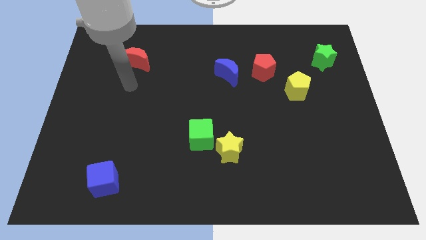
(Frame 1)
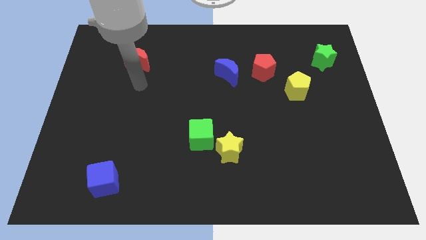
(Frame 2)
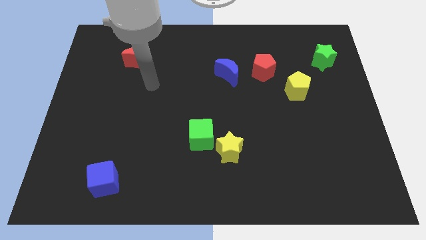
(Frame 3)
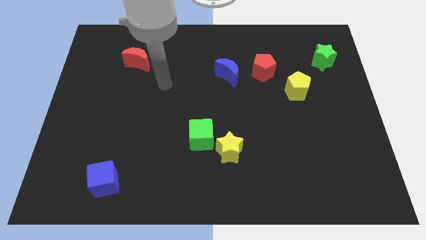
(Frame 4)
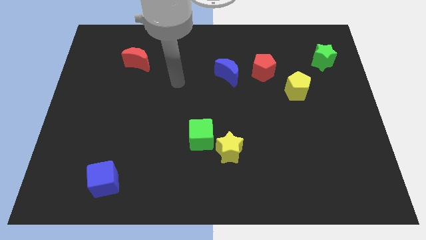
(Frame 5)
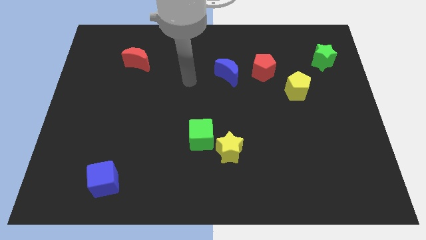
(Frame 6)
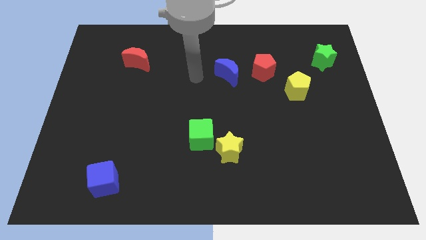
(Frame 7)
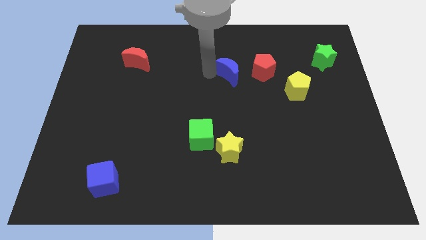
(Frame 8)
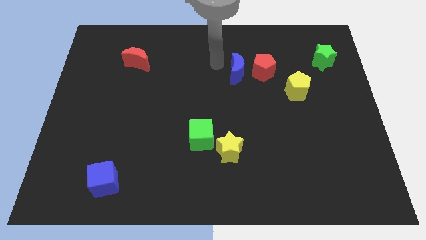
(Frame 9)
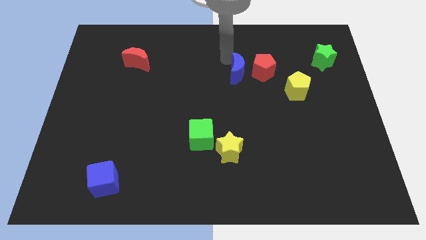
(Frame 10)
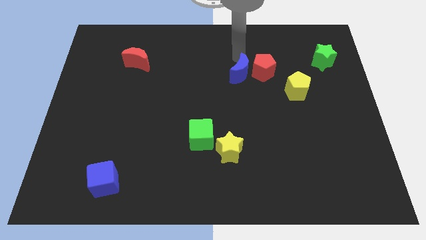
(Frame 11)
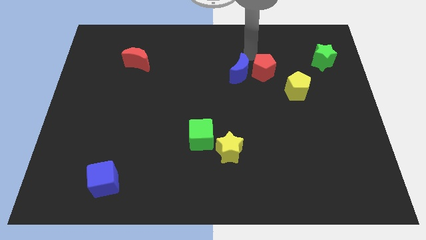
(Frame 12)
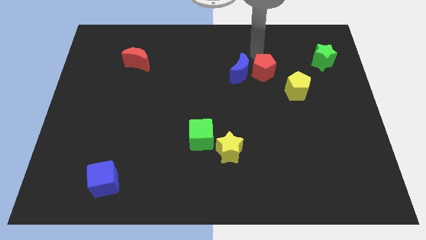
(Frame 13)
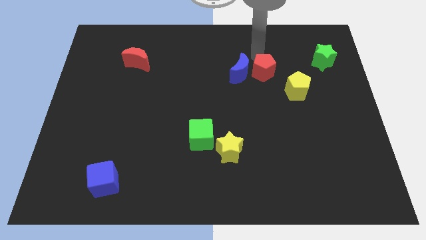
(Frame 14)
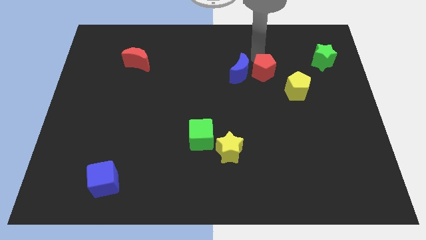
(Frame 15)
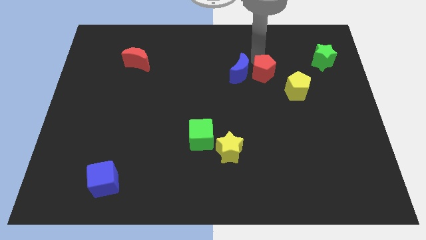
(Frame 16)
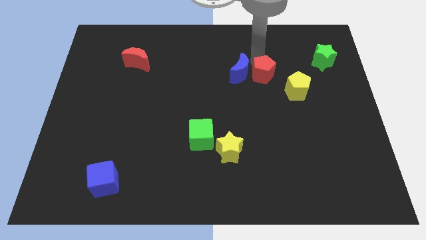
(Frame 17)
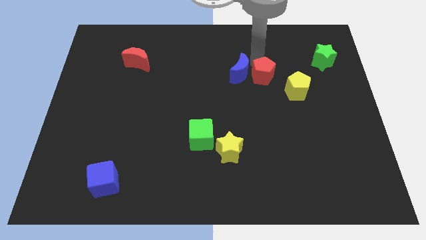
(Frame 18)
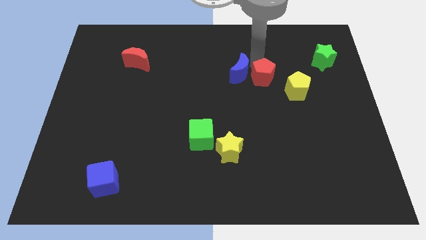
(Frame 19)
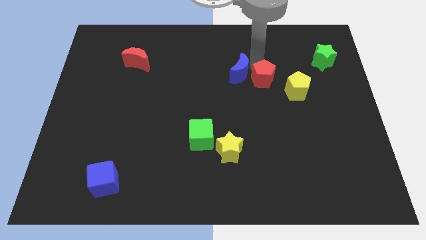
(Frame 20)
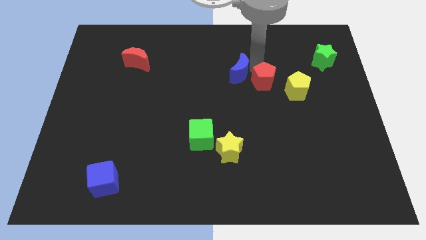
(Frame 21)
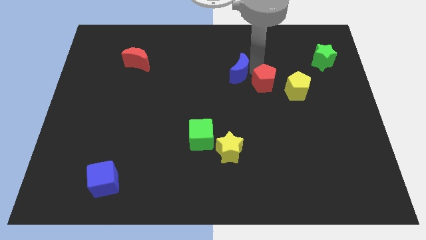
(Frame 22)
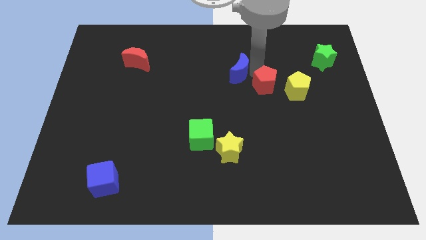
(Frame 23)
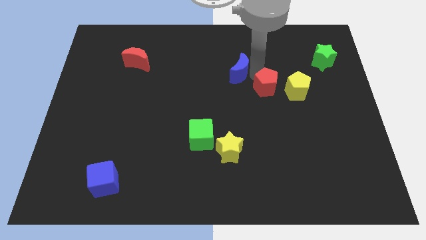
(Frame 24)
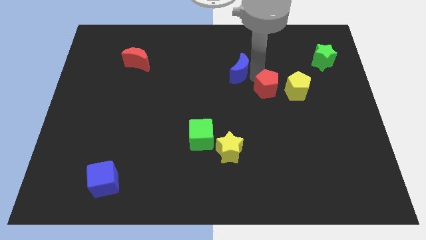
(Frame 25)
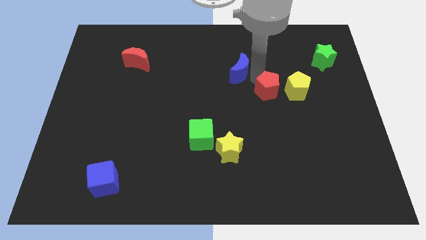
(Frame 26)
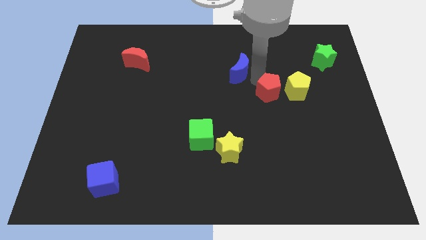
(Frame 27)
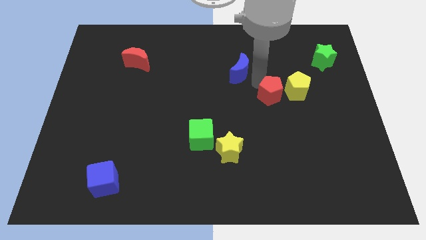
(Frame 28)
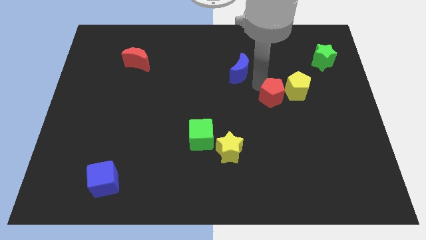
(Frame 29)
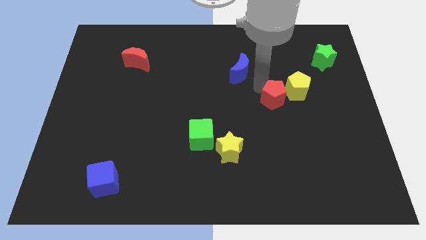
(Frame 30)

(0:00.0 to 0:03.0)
push the red pentagon diagonally down and to the right a little

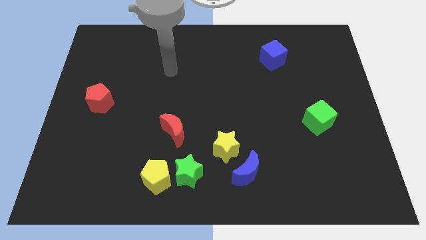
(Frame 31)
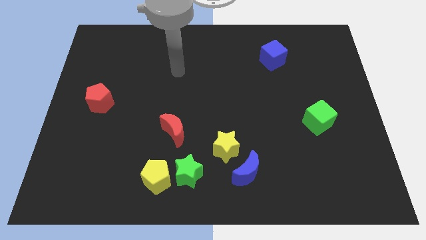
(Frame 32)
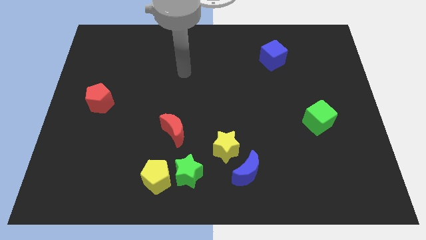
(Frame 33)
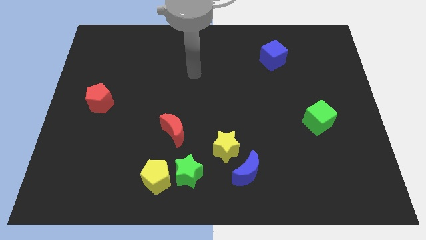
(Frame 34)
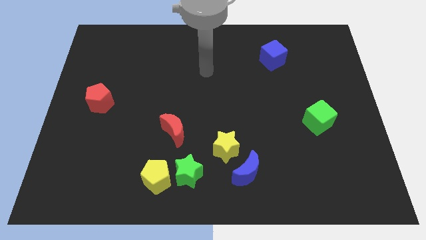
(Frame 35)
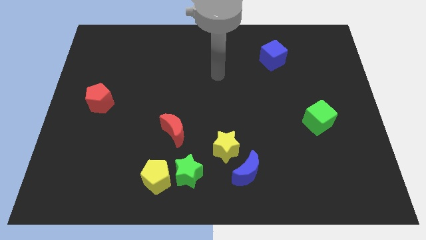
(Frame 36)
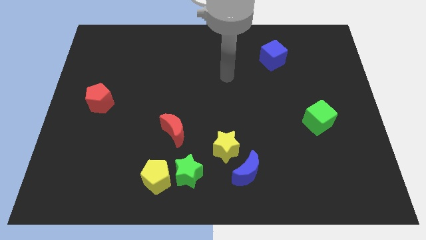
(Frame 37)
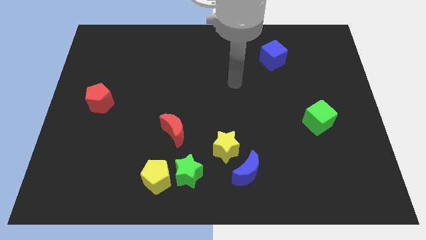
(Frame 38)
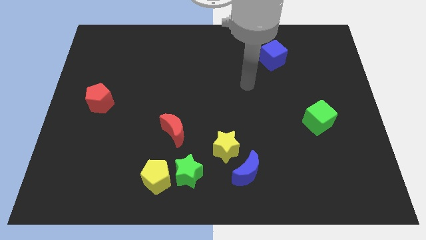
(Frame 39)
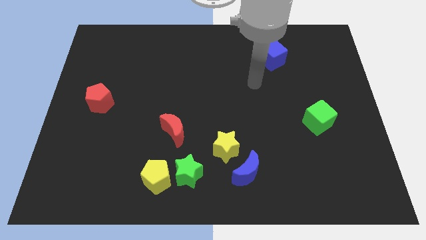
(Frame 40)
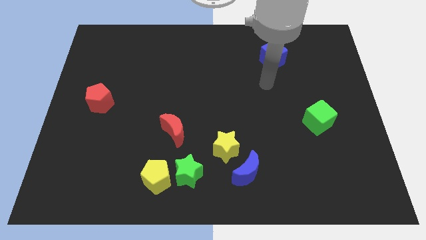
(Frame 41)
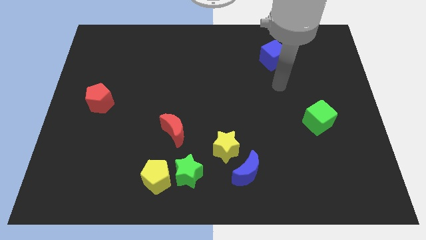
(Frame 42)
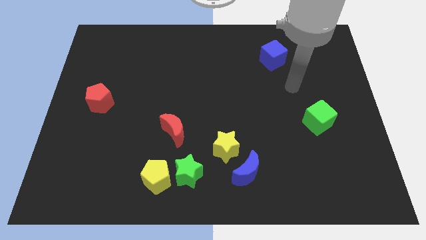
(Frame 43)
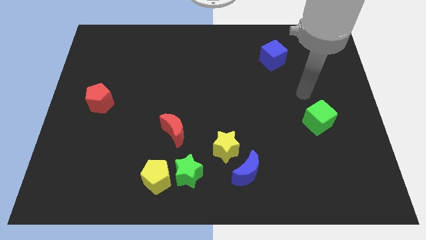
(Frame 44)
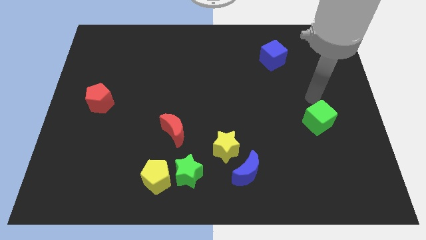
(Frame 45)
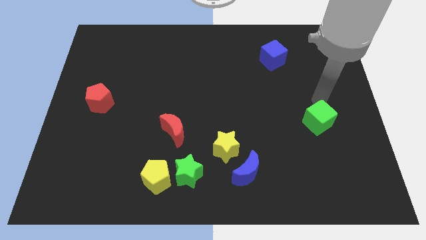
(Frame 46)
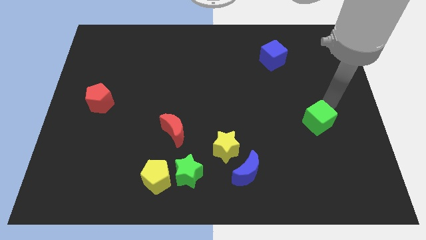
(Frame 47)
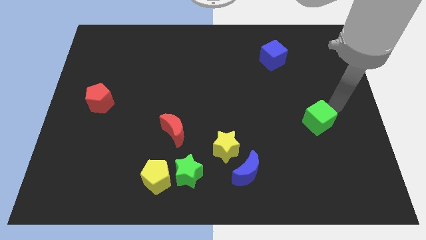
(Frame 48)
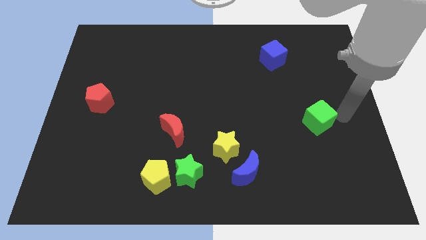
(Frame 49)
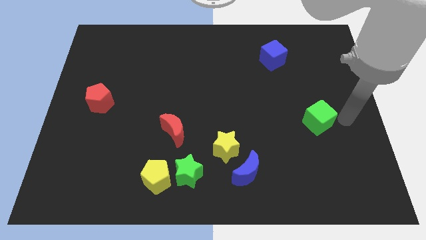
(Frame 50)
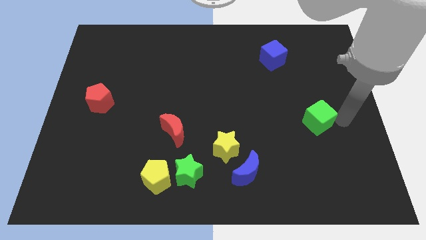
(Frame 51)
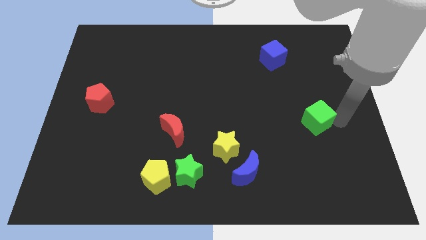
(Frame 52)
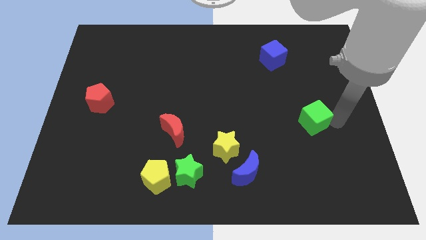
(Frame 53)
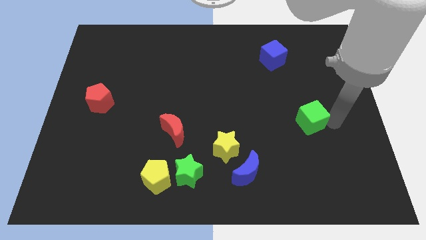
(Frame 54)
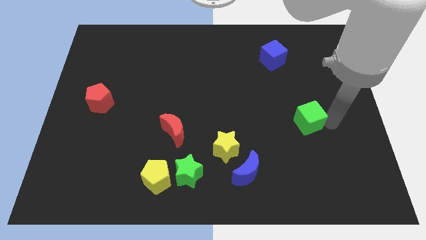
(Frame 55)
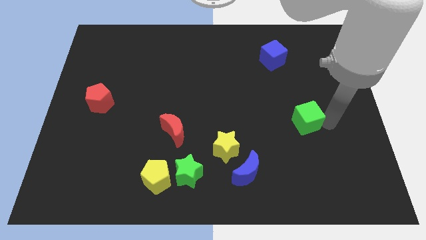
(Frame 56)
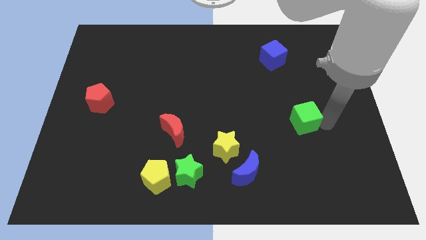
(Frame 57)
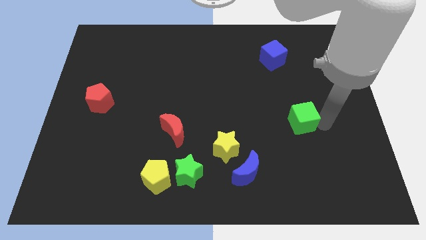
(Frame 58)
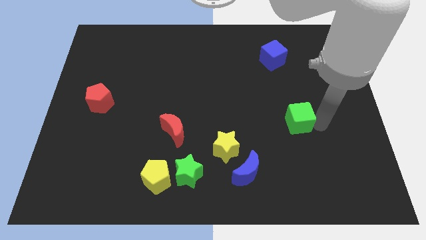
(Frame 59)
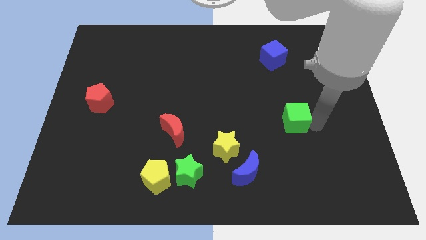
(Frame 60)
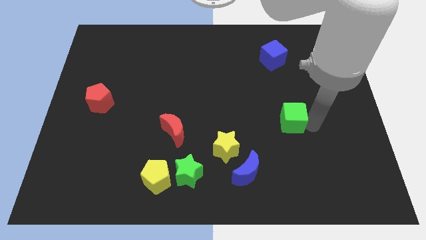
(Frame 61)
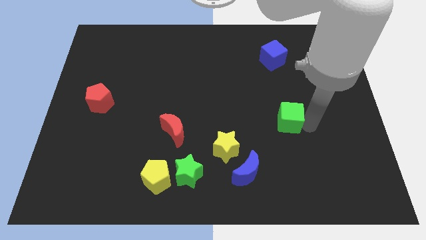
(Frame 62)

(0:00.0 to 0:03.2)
push the green cube to the left slightly

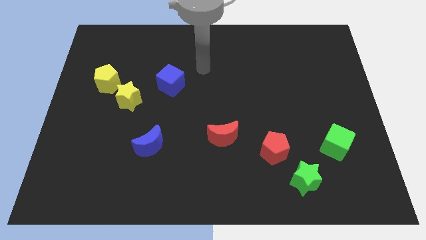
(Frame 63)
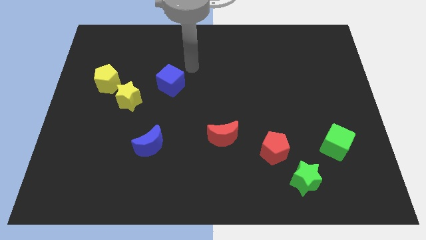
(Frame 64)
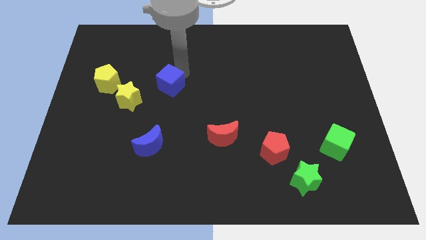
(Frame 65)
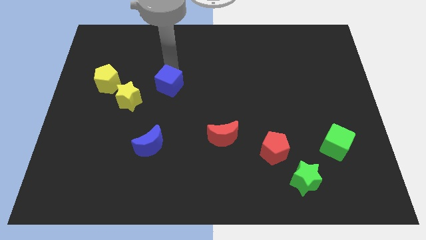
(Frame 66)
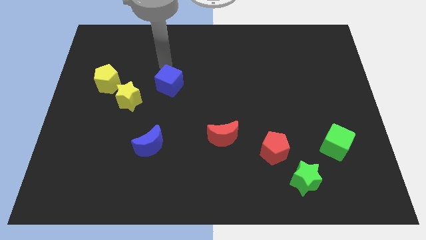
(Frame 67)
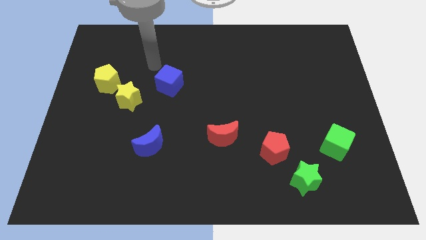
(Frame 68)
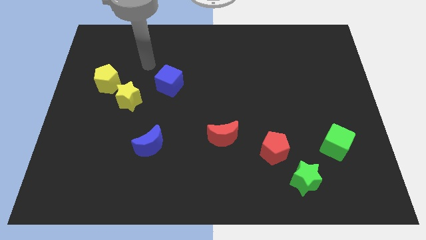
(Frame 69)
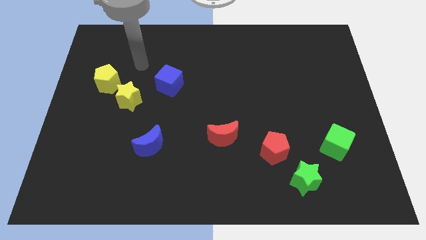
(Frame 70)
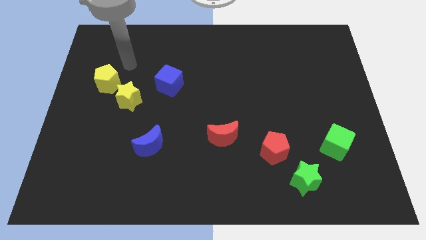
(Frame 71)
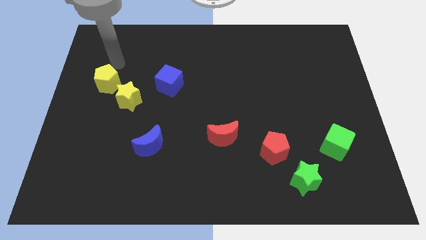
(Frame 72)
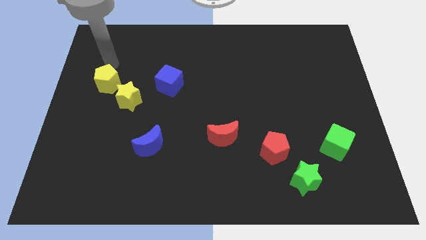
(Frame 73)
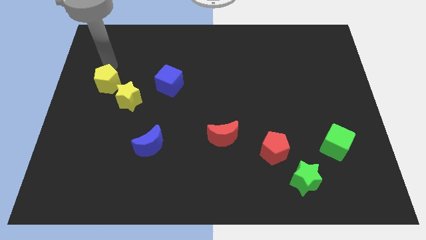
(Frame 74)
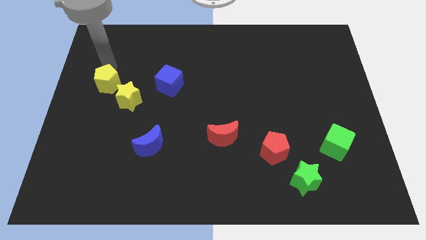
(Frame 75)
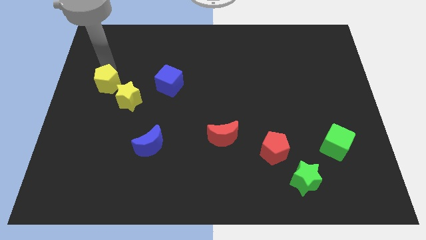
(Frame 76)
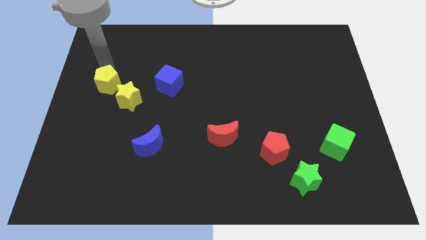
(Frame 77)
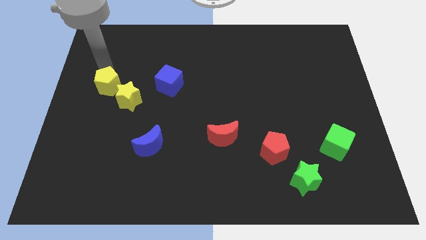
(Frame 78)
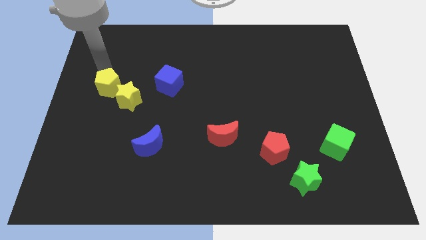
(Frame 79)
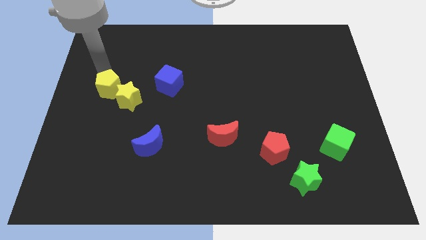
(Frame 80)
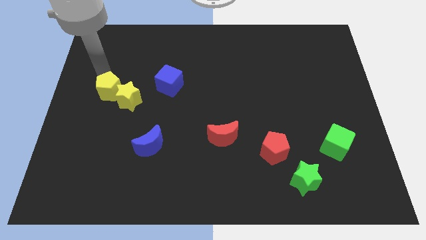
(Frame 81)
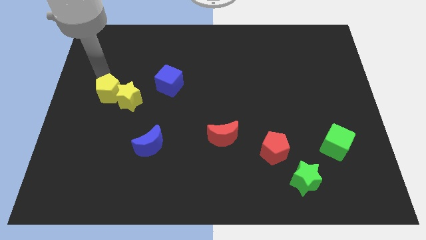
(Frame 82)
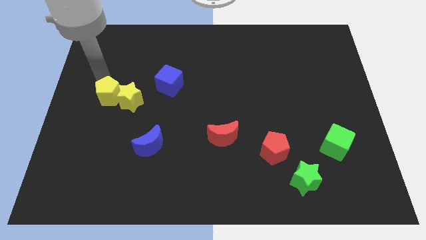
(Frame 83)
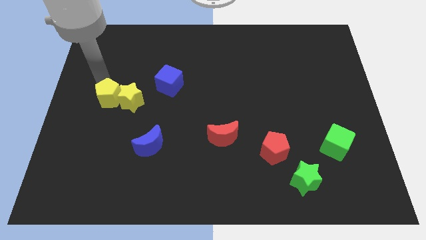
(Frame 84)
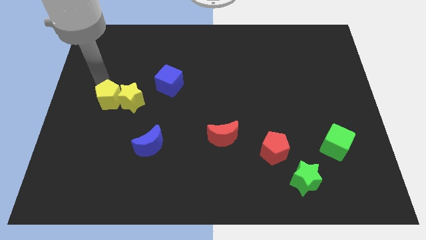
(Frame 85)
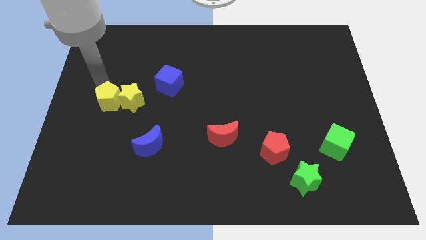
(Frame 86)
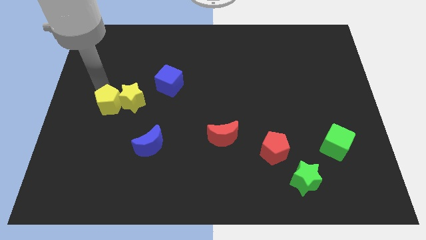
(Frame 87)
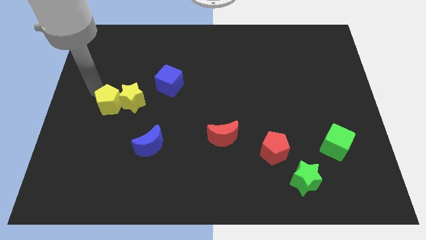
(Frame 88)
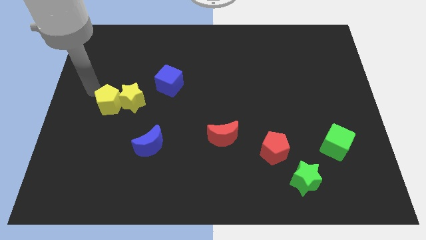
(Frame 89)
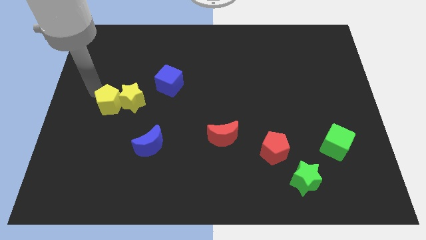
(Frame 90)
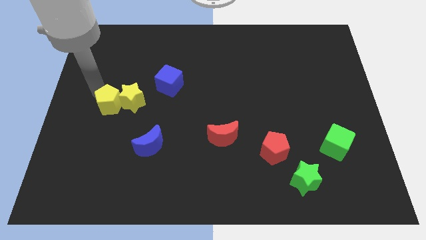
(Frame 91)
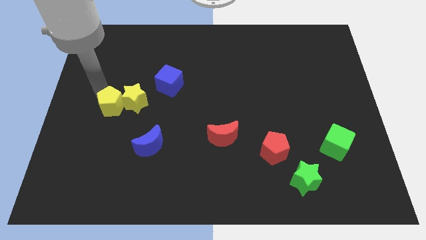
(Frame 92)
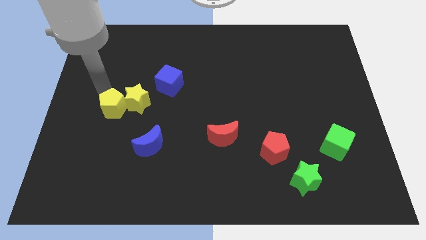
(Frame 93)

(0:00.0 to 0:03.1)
slide the yellow pentagon a little bit downwards and to the right
